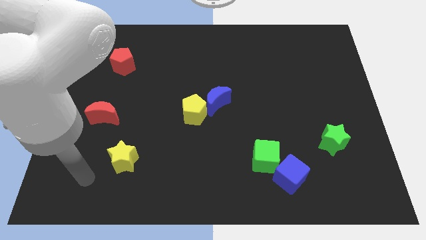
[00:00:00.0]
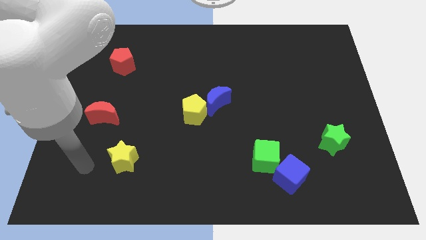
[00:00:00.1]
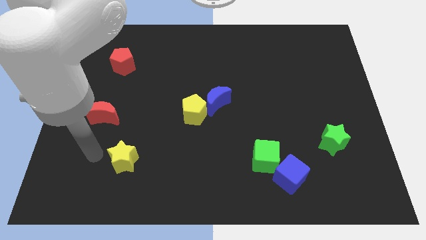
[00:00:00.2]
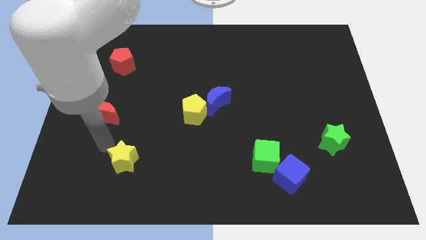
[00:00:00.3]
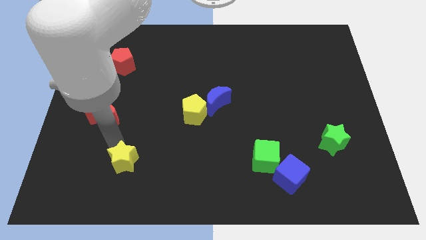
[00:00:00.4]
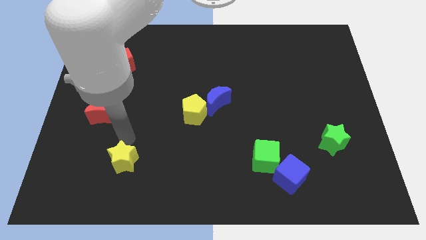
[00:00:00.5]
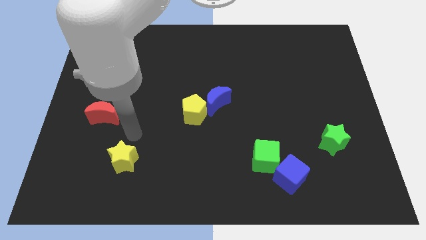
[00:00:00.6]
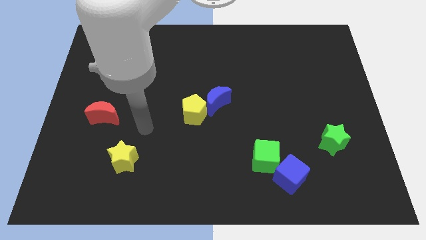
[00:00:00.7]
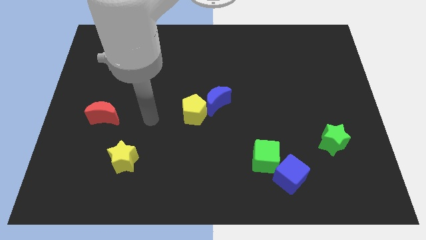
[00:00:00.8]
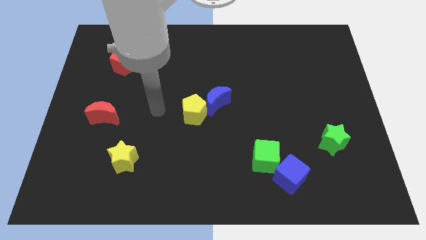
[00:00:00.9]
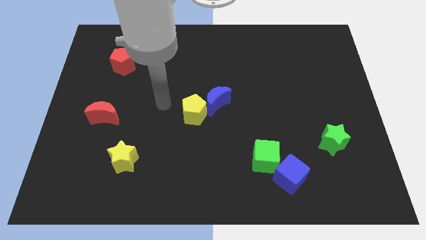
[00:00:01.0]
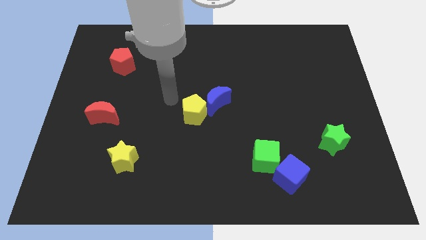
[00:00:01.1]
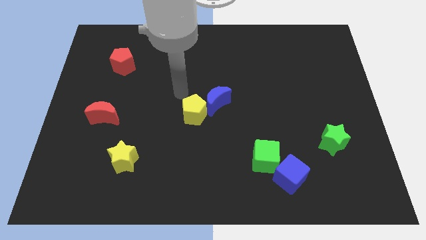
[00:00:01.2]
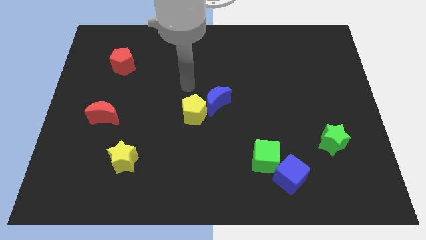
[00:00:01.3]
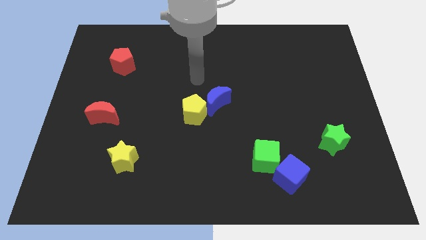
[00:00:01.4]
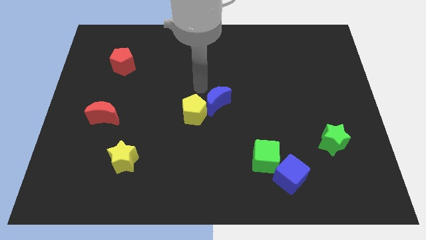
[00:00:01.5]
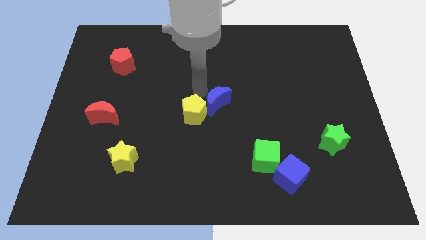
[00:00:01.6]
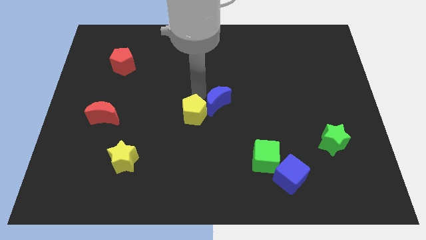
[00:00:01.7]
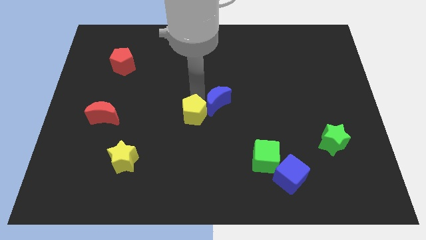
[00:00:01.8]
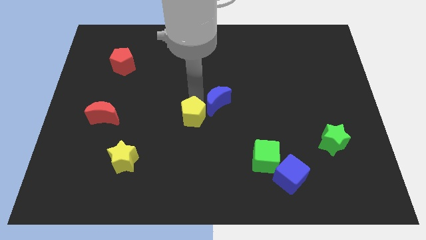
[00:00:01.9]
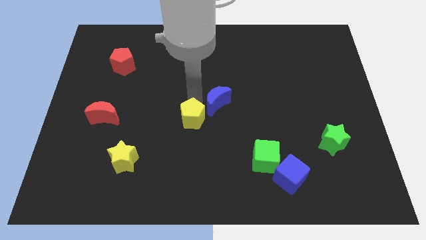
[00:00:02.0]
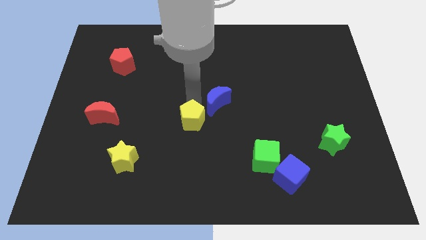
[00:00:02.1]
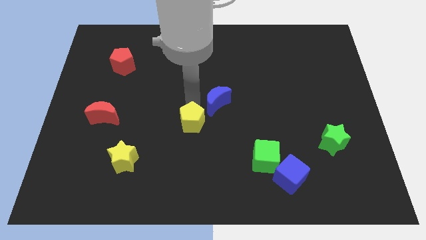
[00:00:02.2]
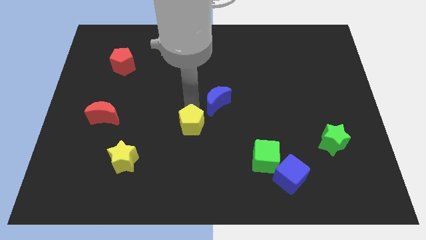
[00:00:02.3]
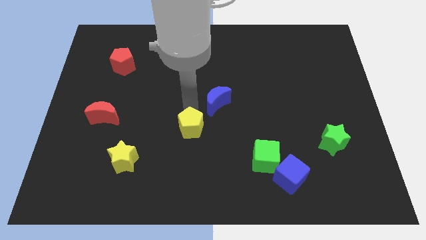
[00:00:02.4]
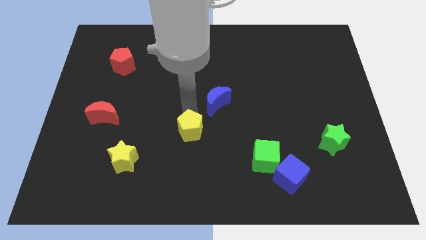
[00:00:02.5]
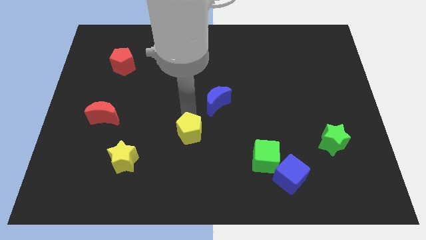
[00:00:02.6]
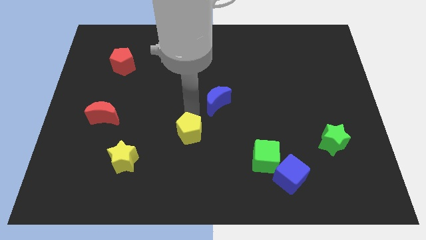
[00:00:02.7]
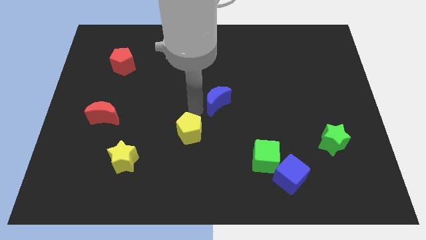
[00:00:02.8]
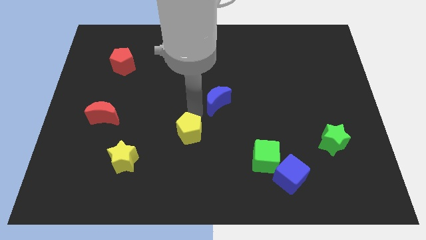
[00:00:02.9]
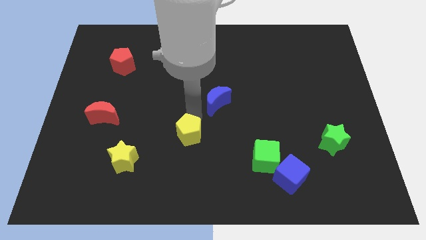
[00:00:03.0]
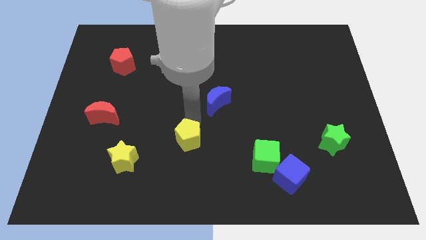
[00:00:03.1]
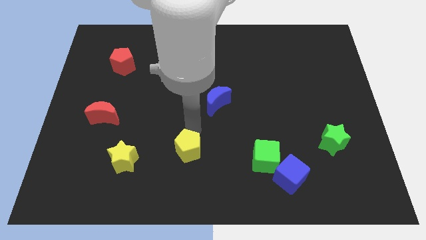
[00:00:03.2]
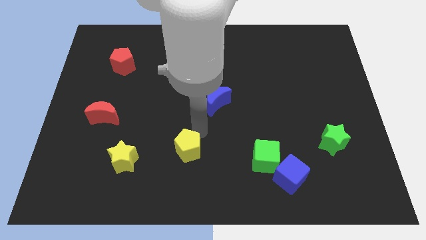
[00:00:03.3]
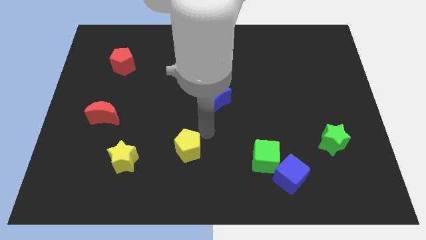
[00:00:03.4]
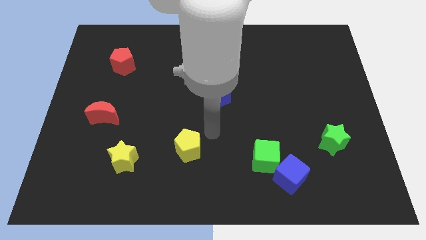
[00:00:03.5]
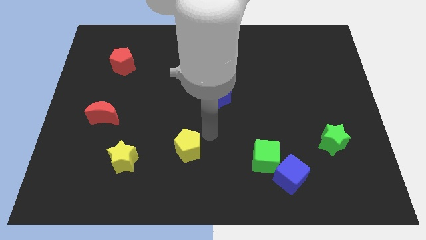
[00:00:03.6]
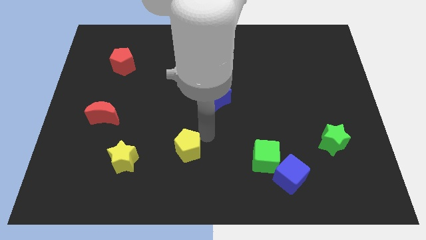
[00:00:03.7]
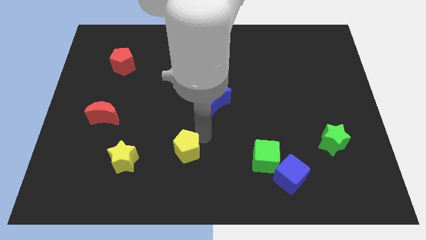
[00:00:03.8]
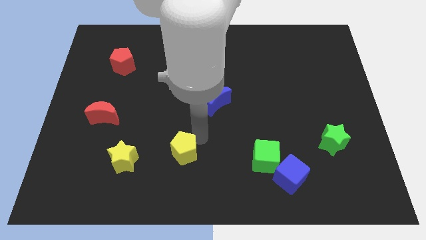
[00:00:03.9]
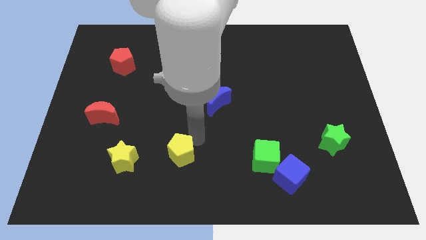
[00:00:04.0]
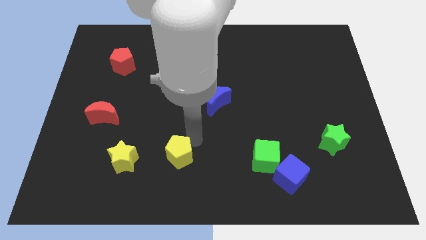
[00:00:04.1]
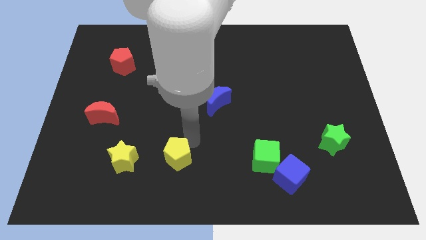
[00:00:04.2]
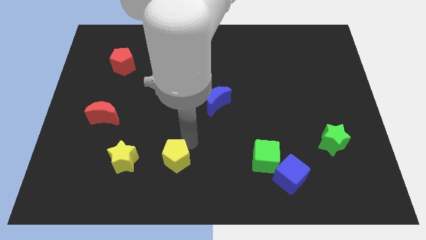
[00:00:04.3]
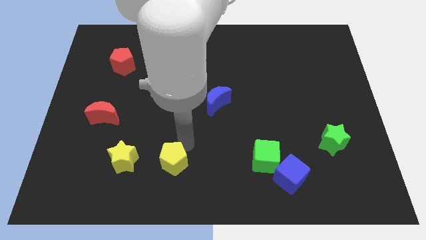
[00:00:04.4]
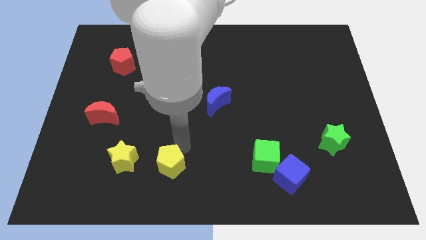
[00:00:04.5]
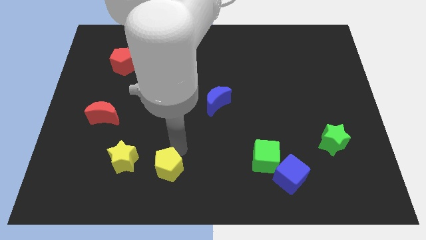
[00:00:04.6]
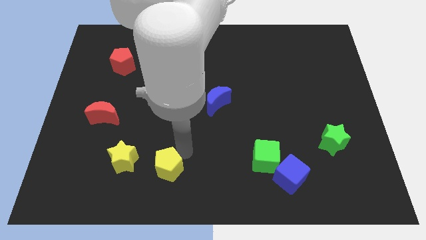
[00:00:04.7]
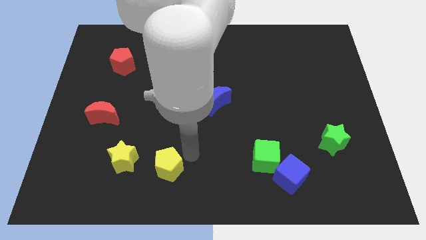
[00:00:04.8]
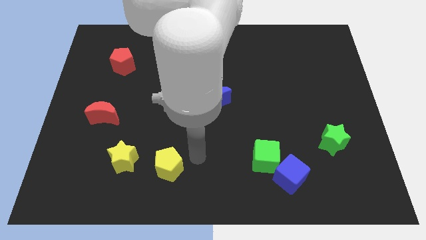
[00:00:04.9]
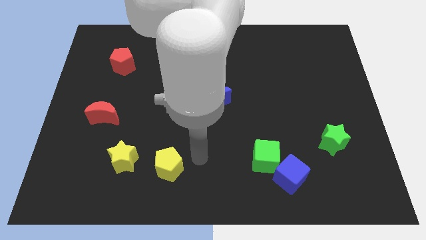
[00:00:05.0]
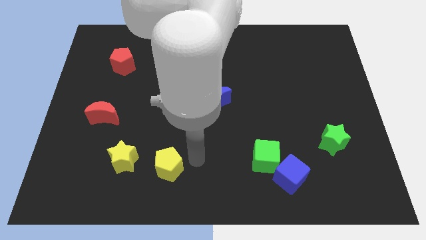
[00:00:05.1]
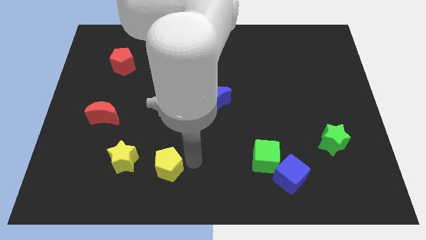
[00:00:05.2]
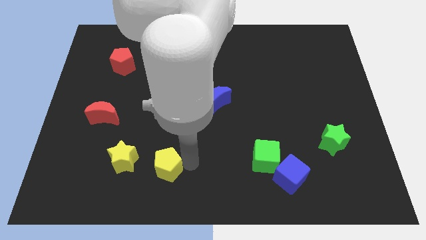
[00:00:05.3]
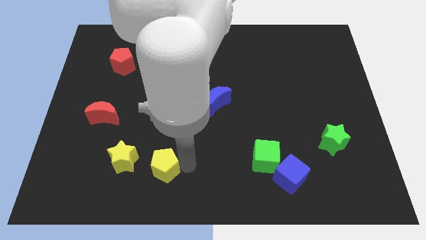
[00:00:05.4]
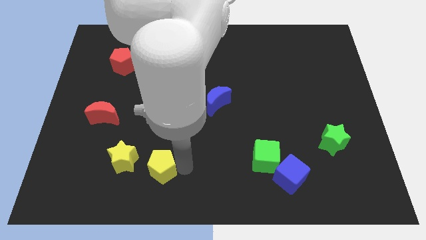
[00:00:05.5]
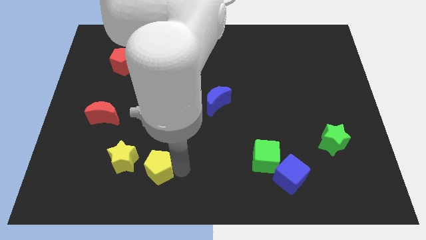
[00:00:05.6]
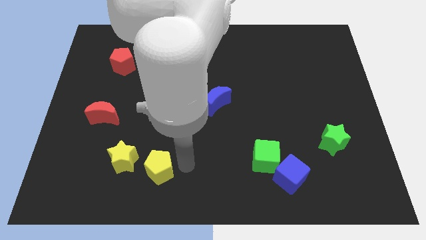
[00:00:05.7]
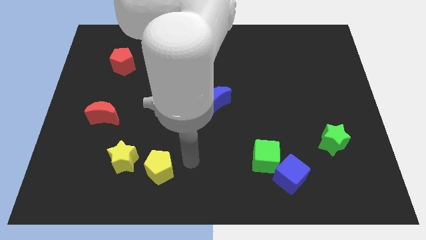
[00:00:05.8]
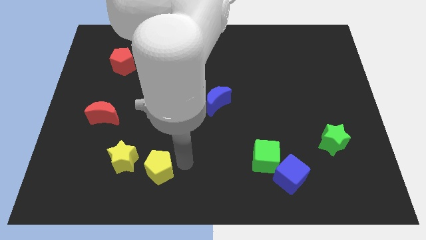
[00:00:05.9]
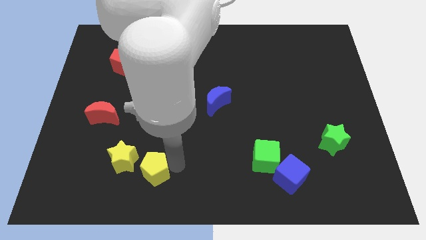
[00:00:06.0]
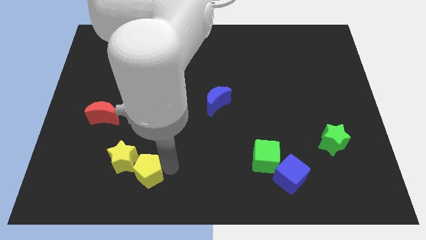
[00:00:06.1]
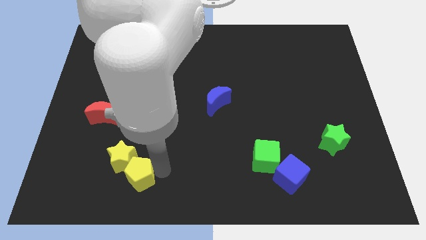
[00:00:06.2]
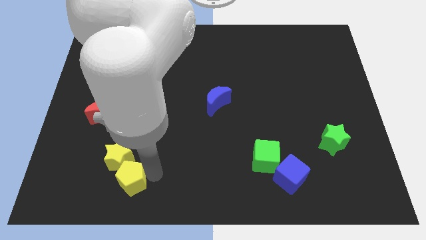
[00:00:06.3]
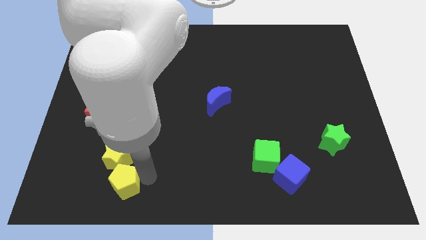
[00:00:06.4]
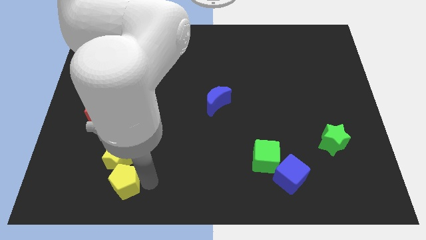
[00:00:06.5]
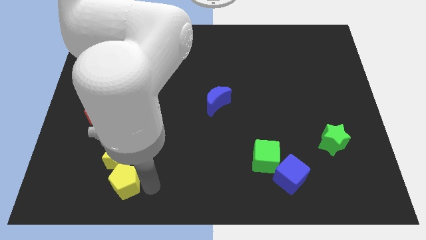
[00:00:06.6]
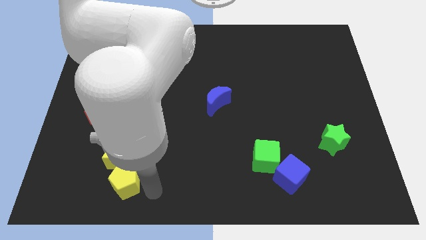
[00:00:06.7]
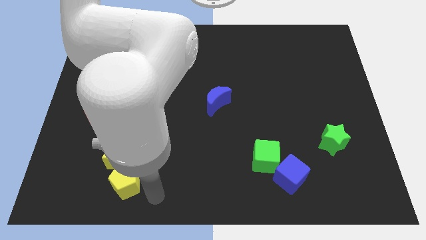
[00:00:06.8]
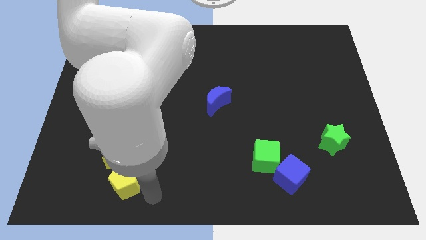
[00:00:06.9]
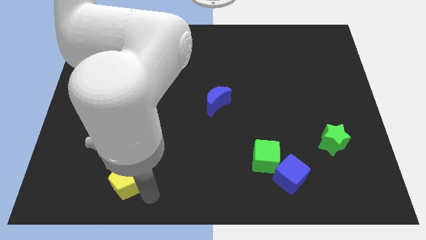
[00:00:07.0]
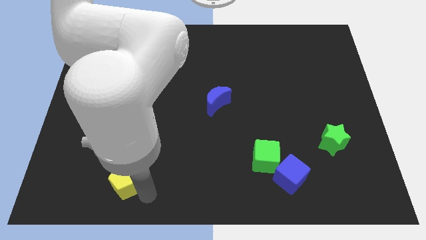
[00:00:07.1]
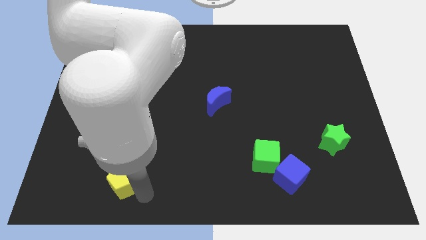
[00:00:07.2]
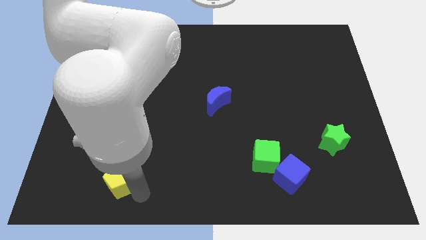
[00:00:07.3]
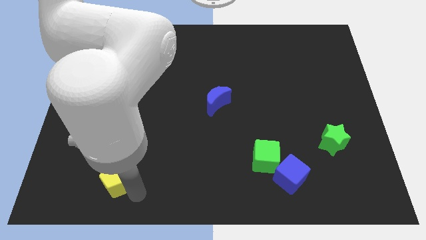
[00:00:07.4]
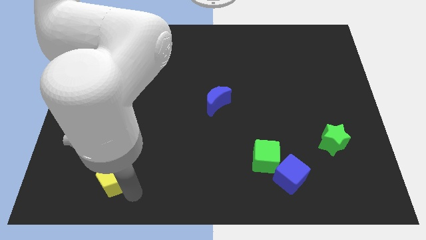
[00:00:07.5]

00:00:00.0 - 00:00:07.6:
move the yellow pentagon diagonally down and to the left of the yellow star
